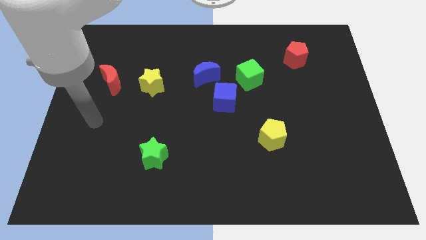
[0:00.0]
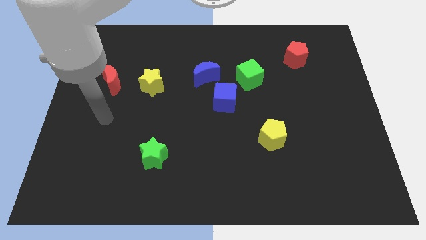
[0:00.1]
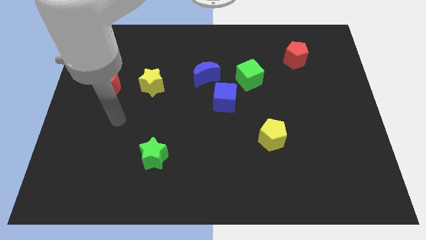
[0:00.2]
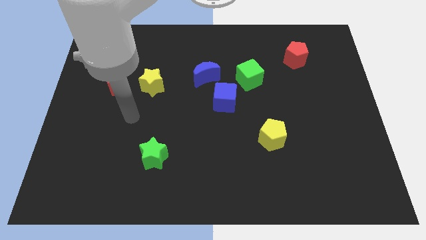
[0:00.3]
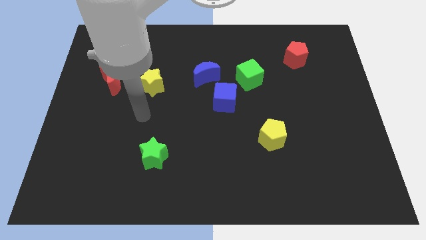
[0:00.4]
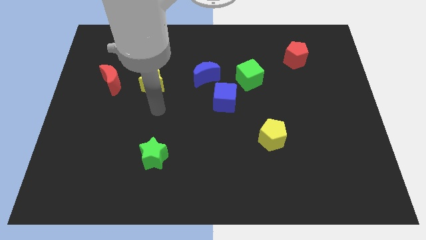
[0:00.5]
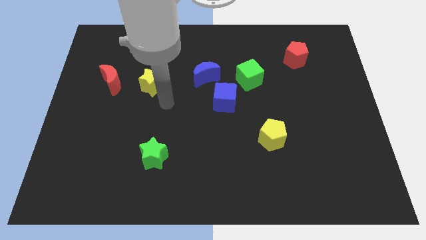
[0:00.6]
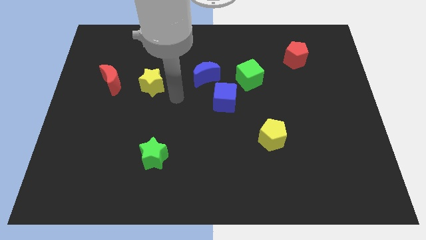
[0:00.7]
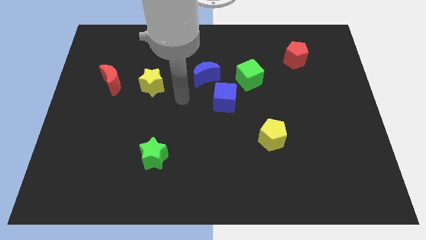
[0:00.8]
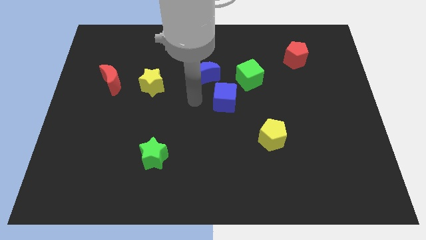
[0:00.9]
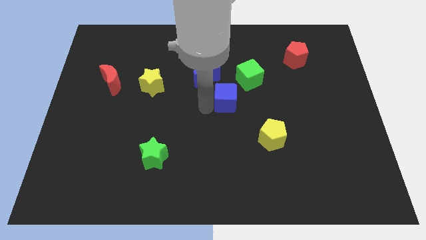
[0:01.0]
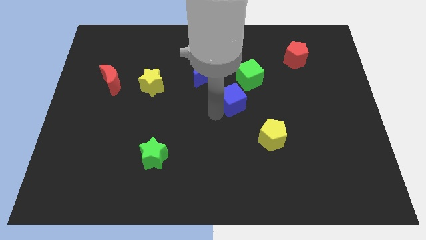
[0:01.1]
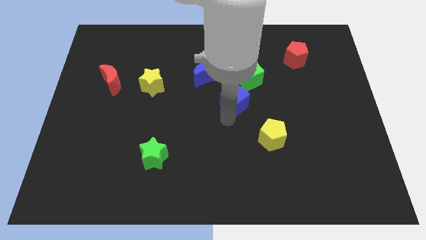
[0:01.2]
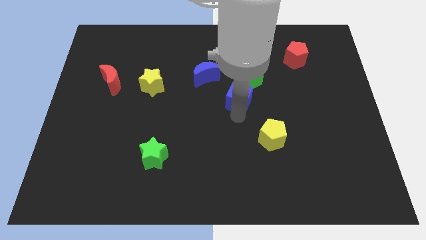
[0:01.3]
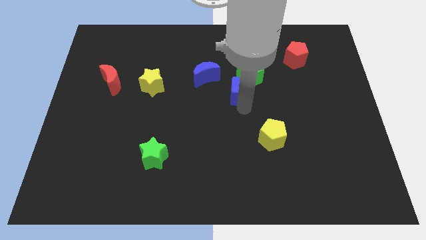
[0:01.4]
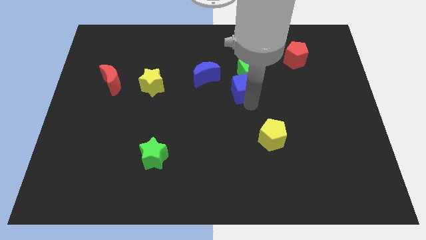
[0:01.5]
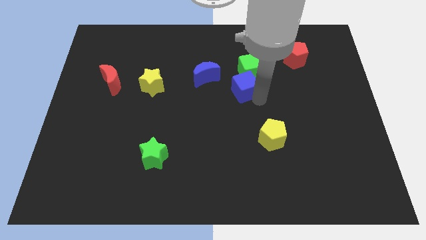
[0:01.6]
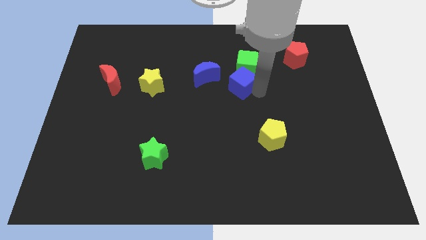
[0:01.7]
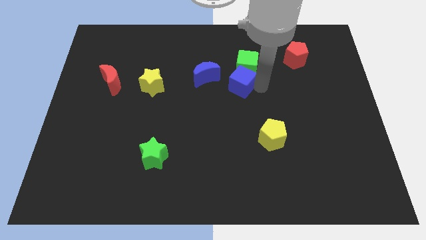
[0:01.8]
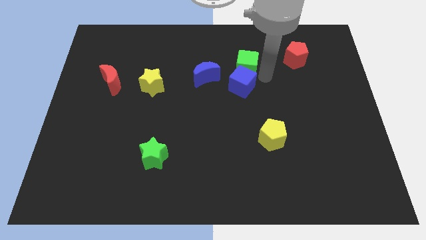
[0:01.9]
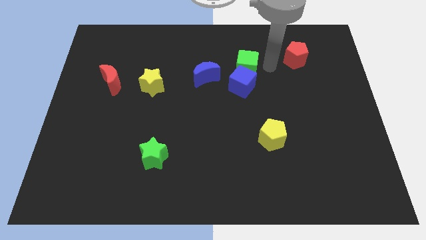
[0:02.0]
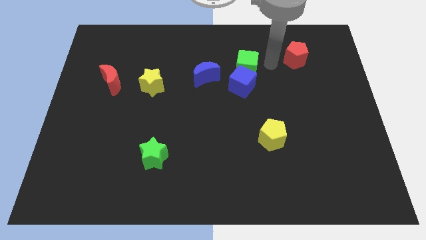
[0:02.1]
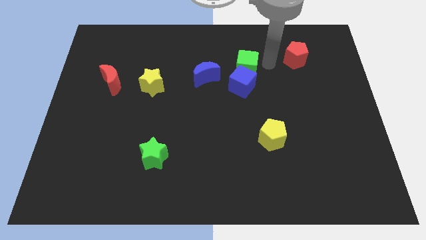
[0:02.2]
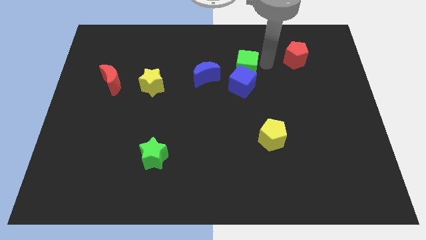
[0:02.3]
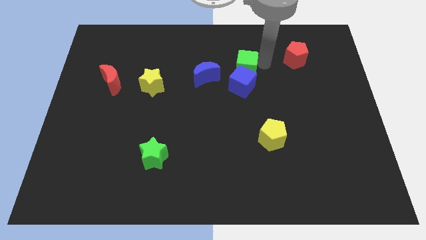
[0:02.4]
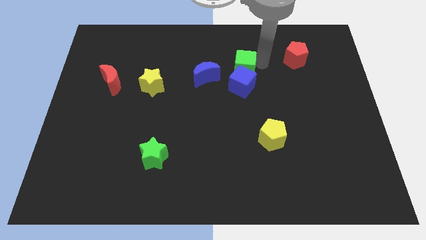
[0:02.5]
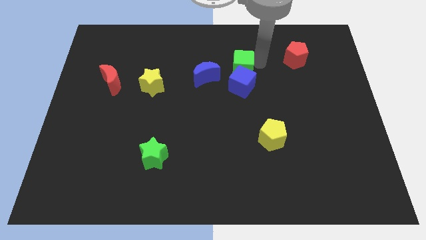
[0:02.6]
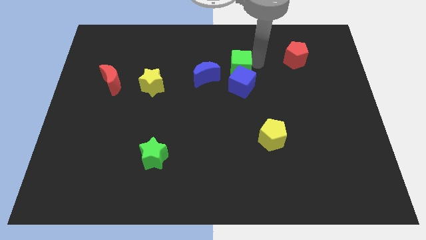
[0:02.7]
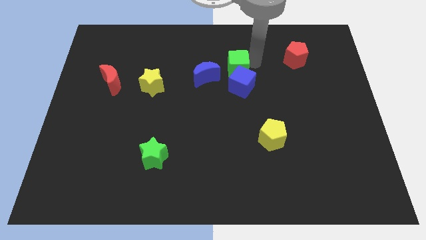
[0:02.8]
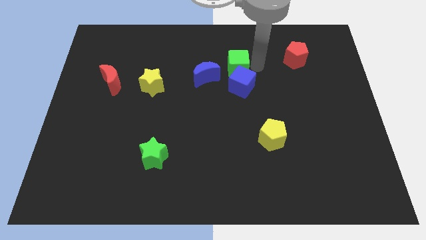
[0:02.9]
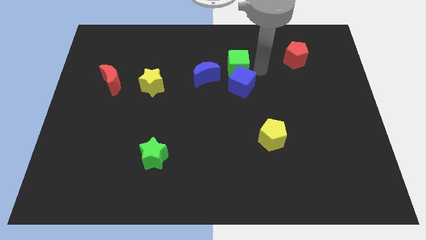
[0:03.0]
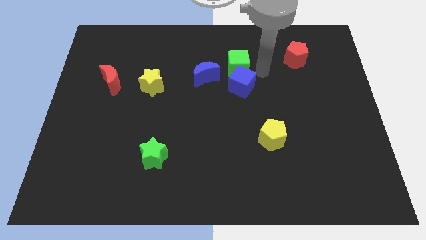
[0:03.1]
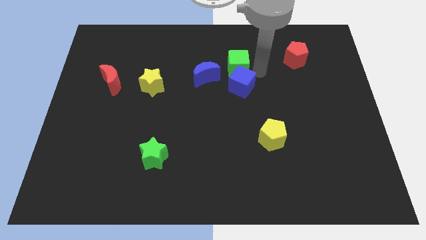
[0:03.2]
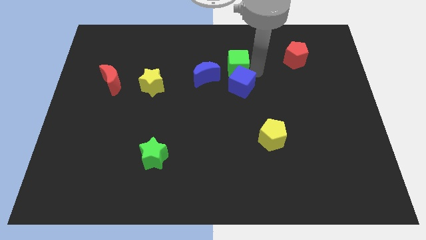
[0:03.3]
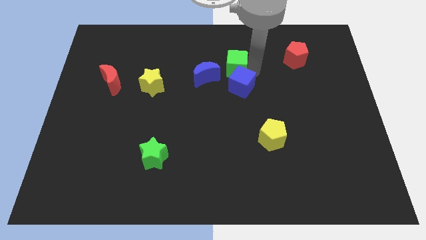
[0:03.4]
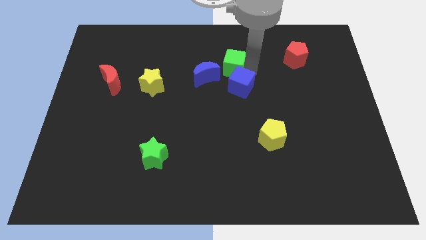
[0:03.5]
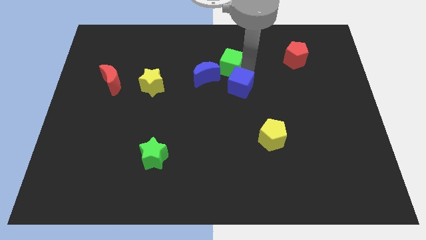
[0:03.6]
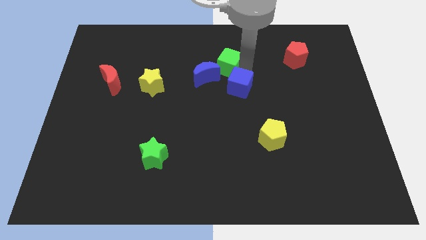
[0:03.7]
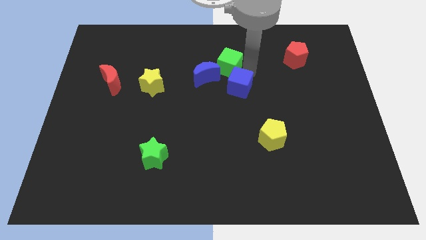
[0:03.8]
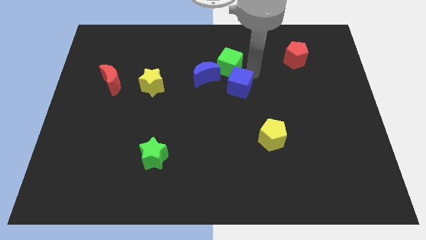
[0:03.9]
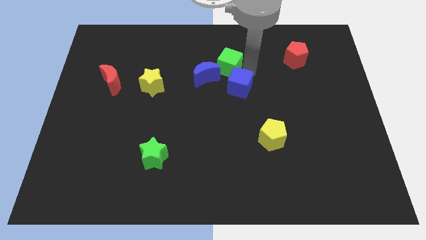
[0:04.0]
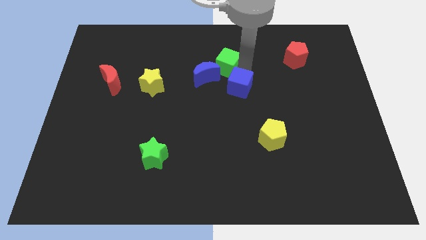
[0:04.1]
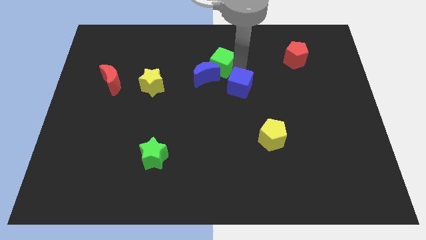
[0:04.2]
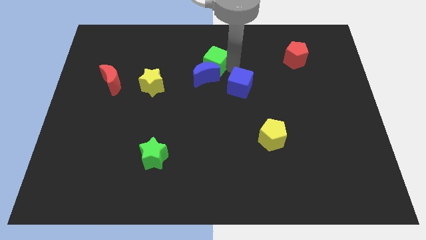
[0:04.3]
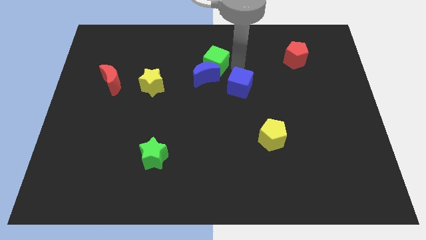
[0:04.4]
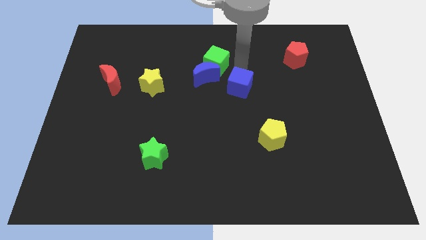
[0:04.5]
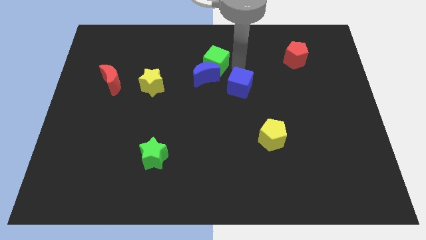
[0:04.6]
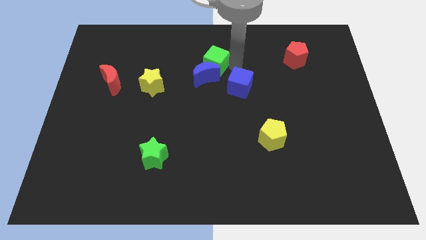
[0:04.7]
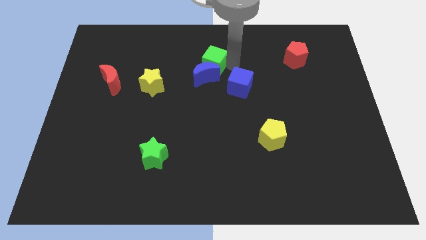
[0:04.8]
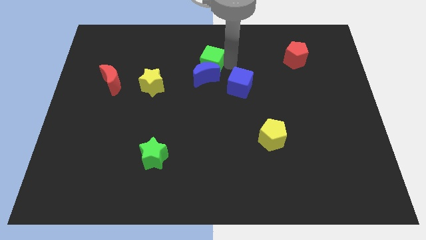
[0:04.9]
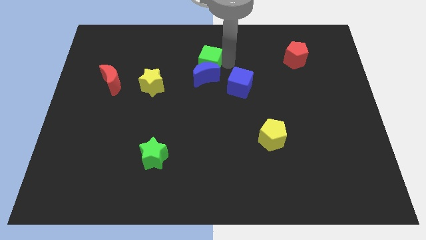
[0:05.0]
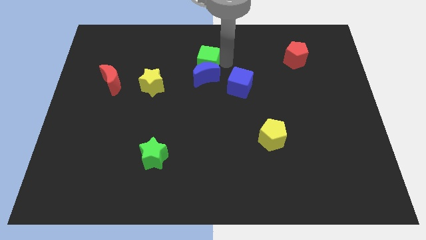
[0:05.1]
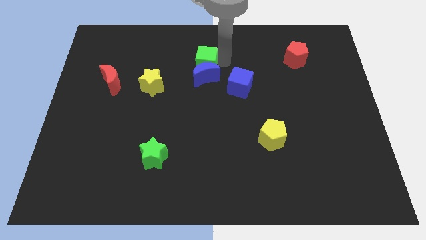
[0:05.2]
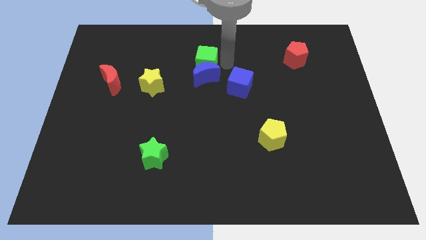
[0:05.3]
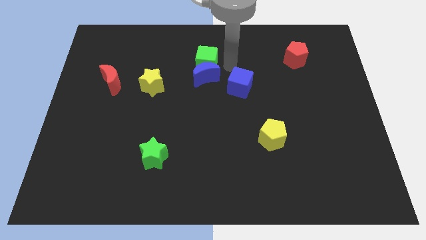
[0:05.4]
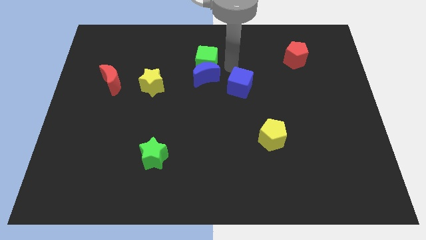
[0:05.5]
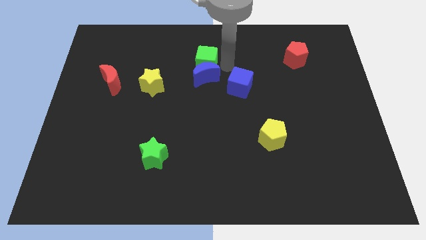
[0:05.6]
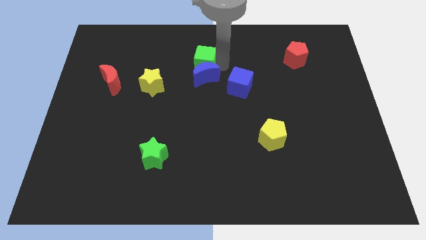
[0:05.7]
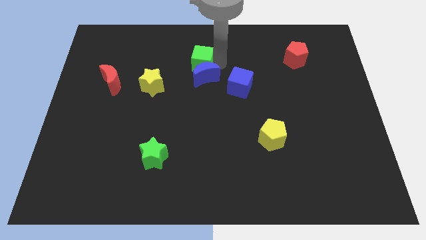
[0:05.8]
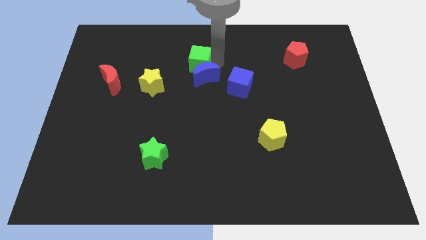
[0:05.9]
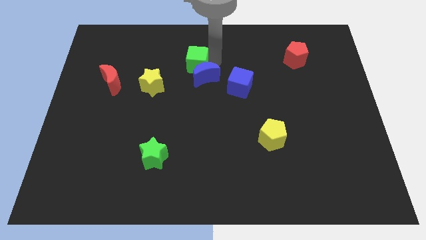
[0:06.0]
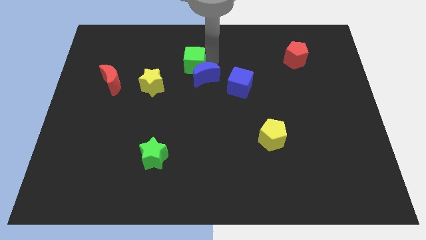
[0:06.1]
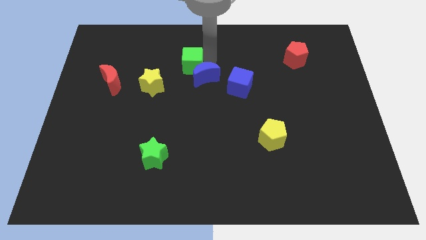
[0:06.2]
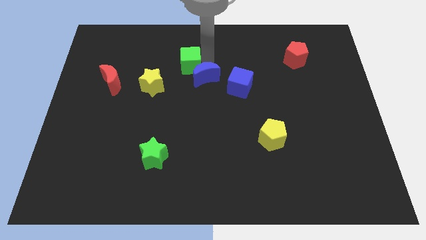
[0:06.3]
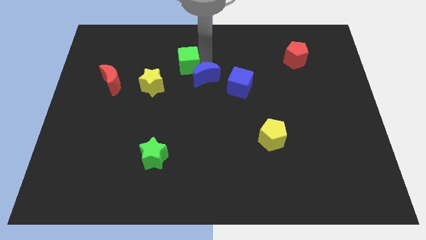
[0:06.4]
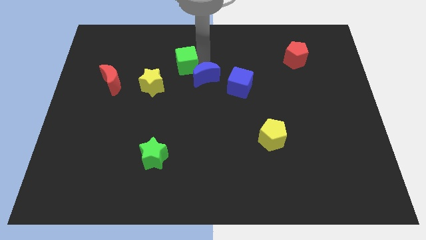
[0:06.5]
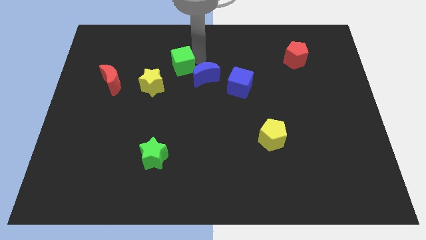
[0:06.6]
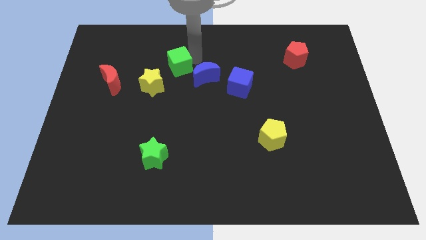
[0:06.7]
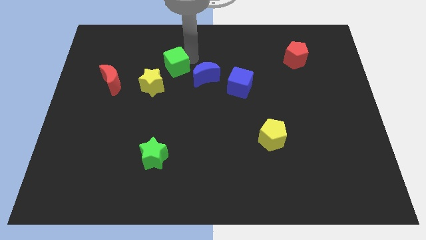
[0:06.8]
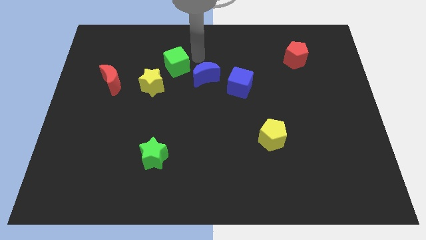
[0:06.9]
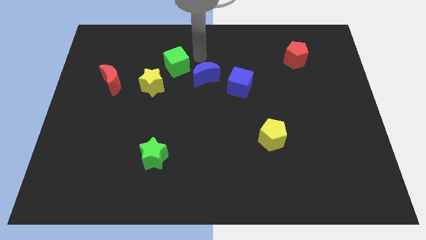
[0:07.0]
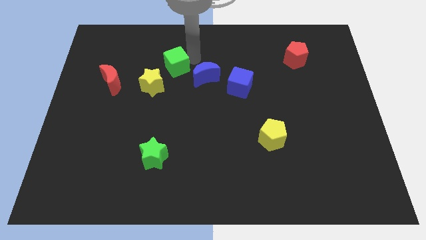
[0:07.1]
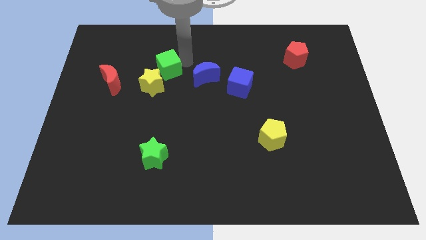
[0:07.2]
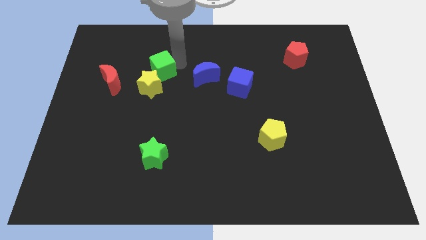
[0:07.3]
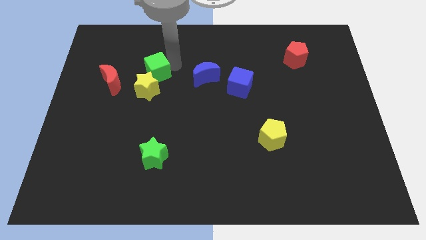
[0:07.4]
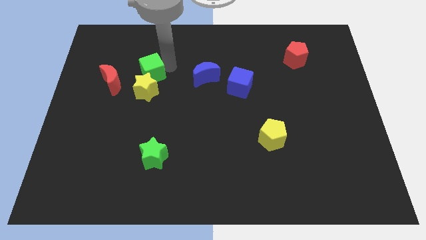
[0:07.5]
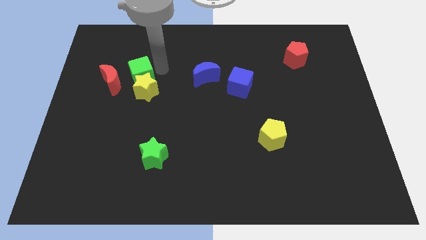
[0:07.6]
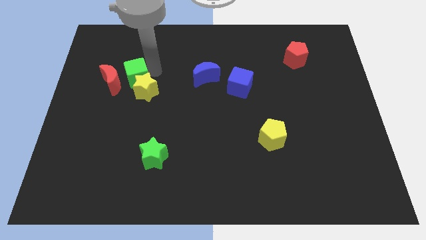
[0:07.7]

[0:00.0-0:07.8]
slide the green cube next to the red moon

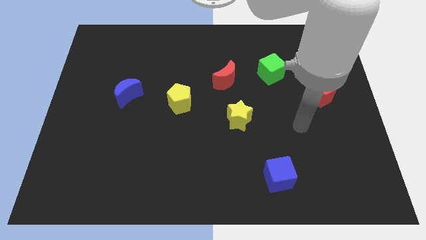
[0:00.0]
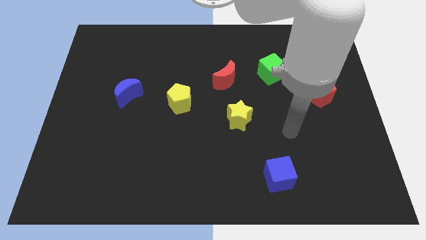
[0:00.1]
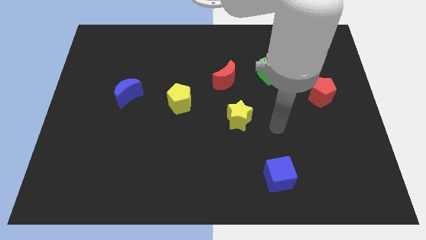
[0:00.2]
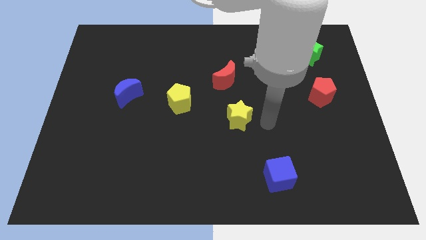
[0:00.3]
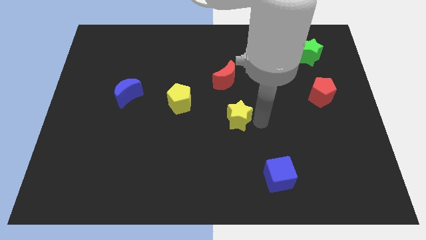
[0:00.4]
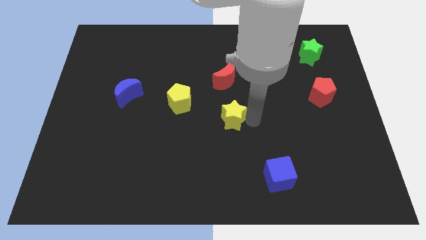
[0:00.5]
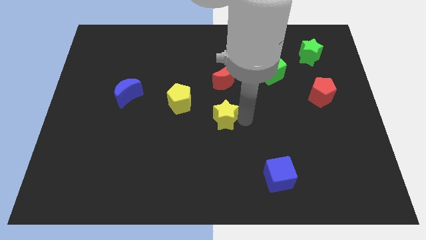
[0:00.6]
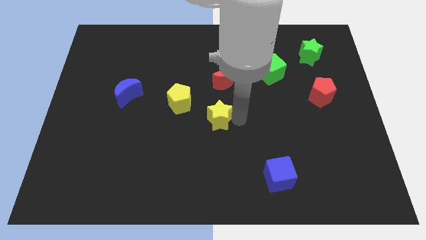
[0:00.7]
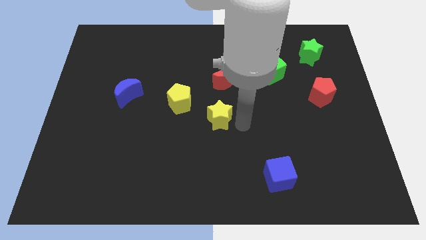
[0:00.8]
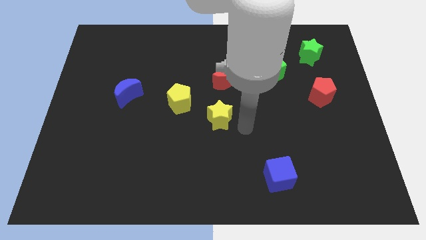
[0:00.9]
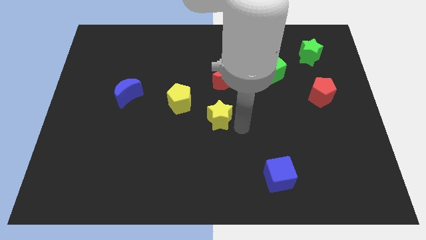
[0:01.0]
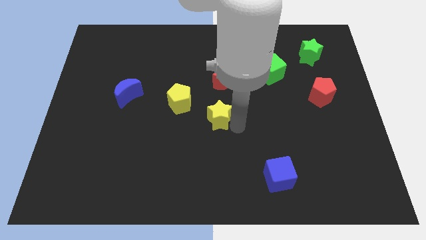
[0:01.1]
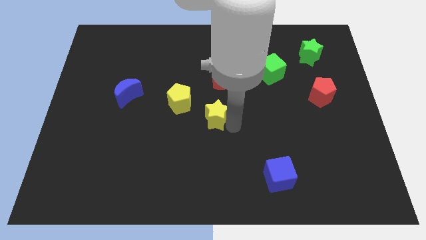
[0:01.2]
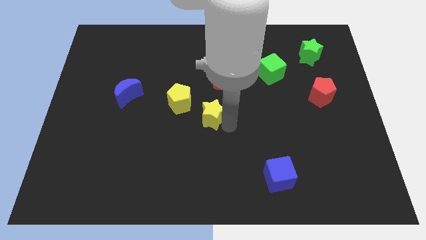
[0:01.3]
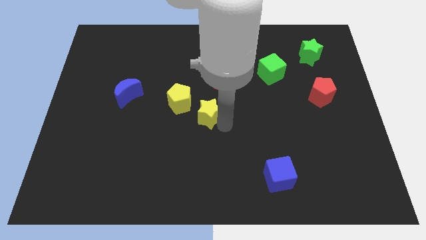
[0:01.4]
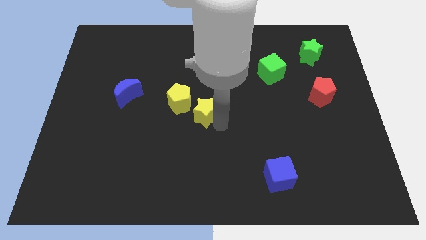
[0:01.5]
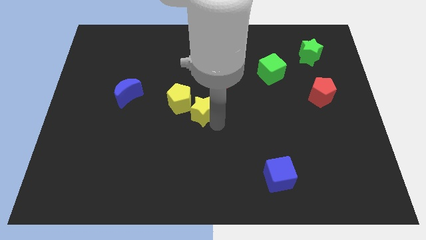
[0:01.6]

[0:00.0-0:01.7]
put the yellow star next to the yellow pentagon
